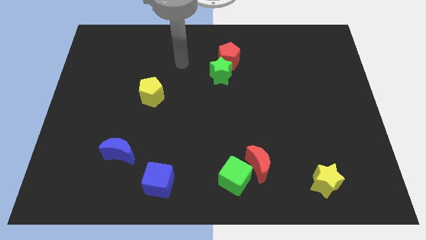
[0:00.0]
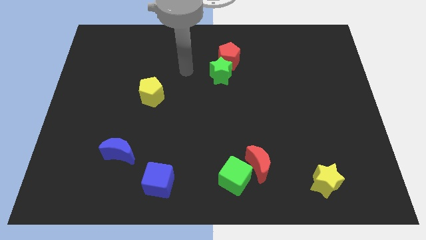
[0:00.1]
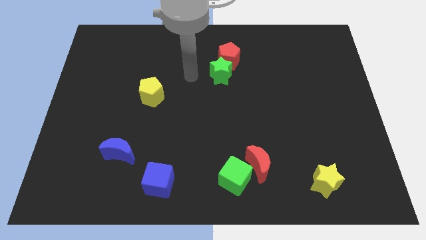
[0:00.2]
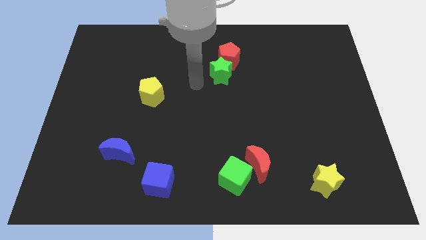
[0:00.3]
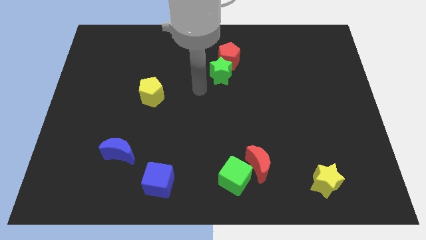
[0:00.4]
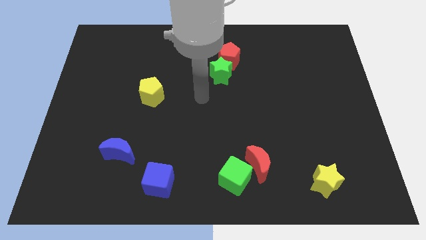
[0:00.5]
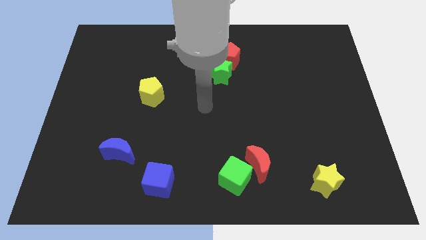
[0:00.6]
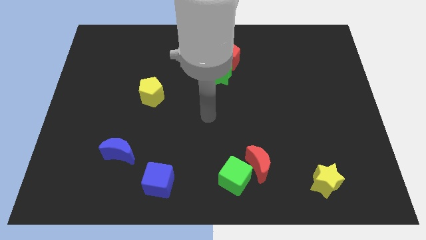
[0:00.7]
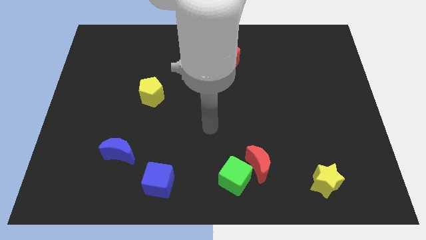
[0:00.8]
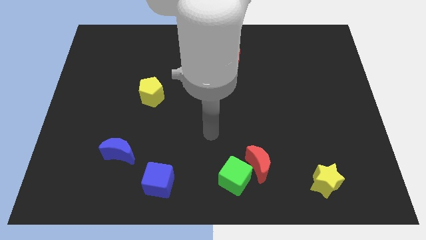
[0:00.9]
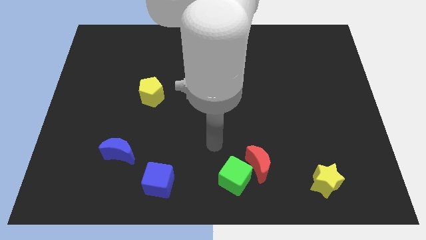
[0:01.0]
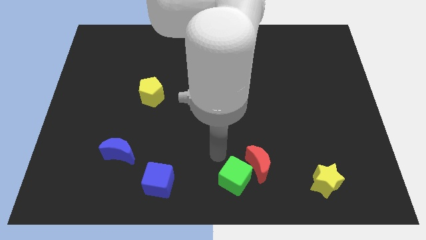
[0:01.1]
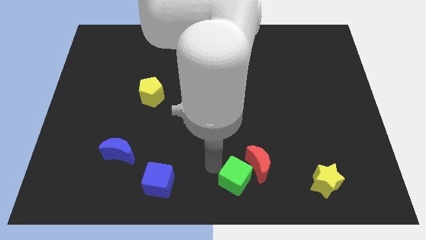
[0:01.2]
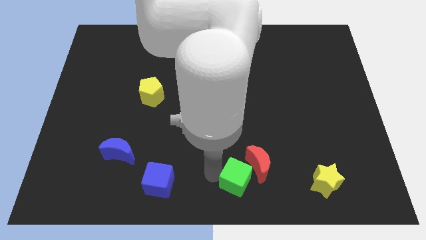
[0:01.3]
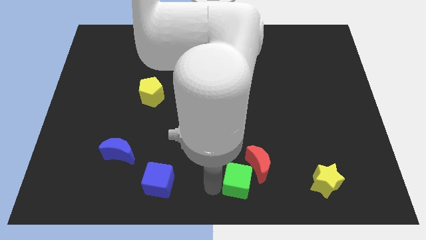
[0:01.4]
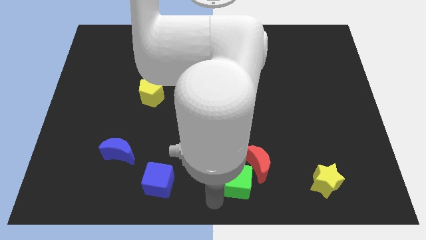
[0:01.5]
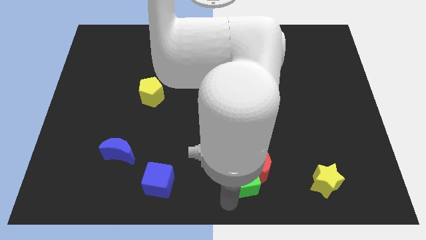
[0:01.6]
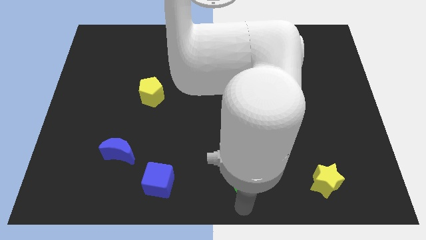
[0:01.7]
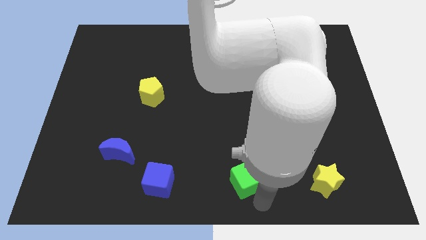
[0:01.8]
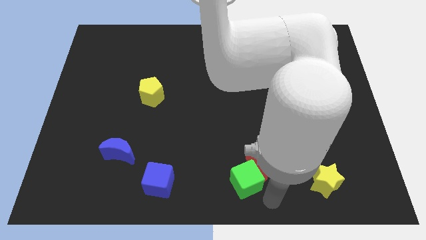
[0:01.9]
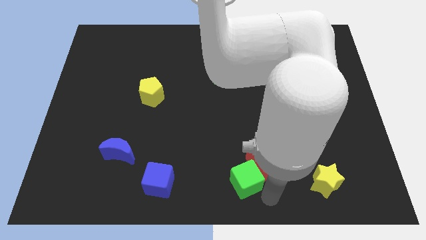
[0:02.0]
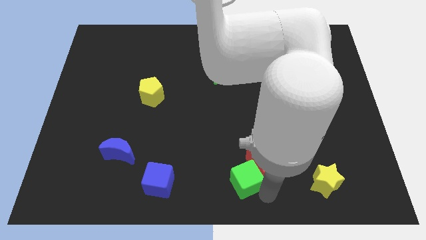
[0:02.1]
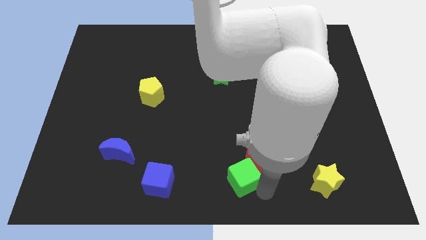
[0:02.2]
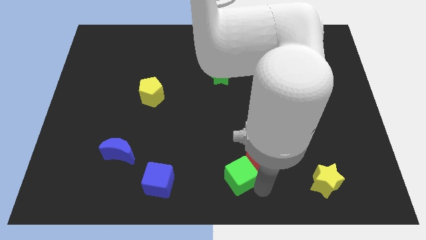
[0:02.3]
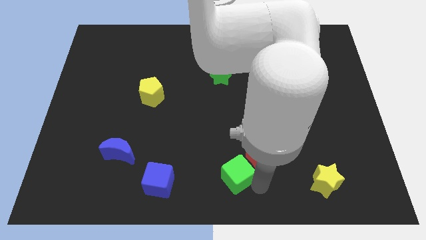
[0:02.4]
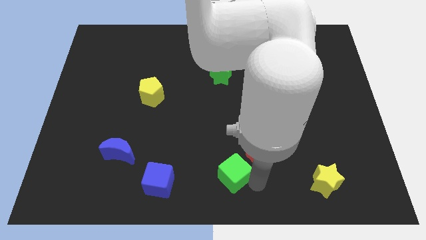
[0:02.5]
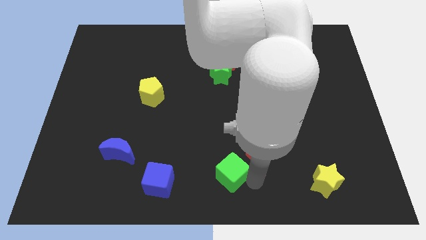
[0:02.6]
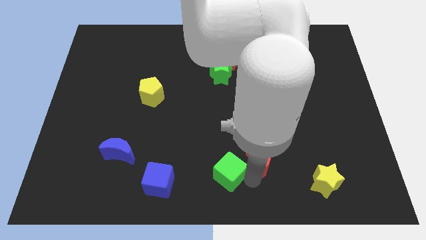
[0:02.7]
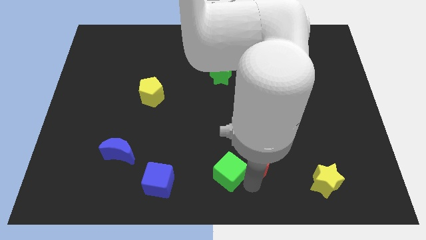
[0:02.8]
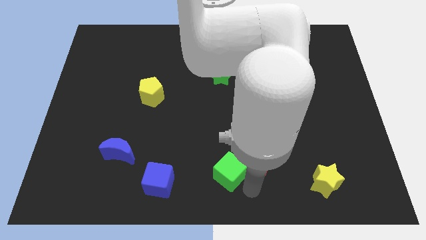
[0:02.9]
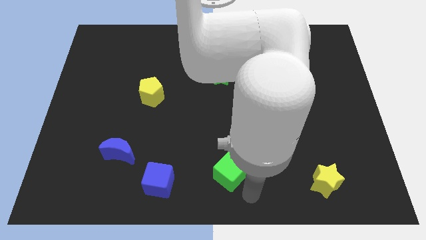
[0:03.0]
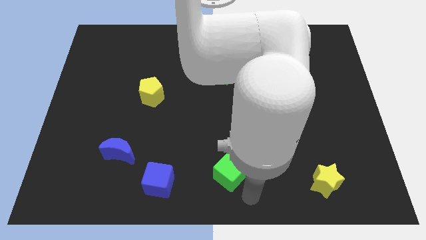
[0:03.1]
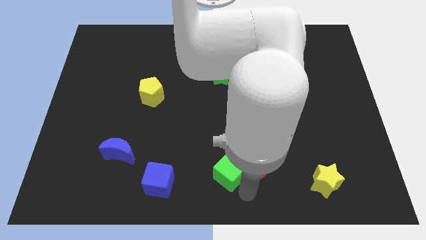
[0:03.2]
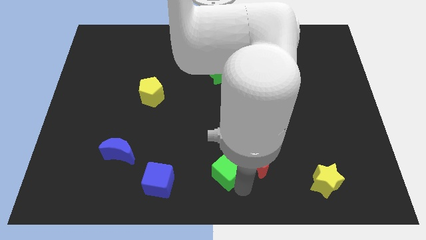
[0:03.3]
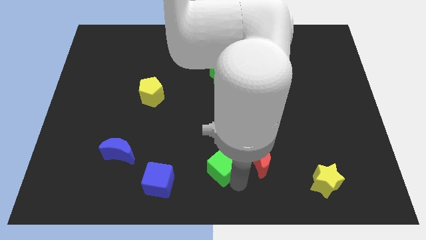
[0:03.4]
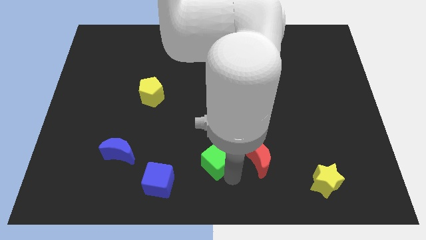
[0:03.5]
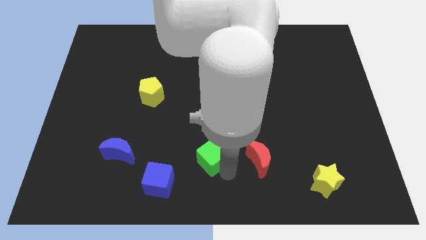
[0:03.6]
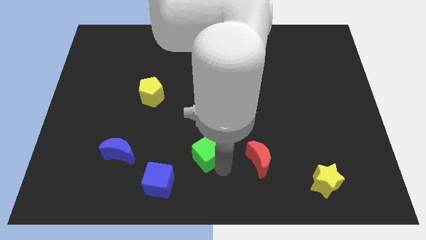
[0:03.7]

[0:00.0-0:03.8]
slide the green cube slightly up and to the left diagonally

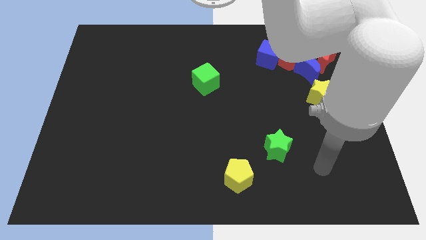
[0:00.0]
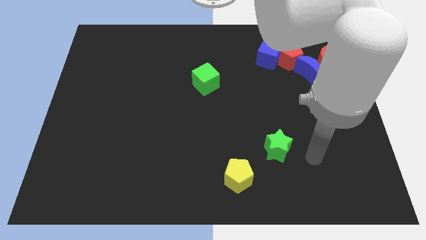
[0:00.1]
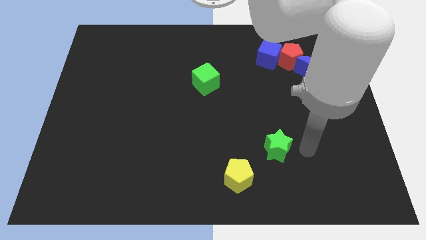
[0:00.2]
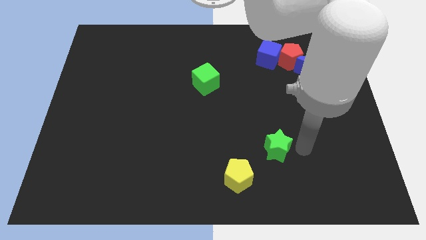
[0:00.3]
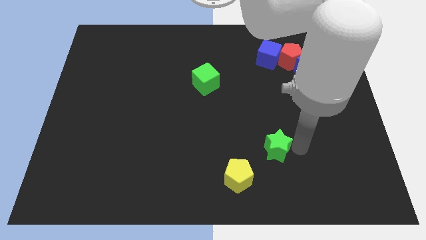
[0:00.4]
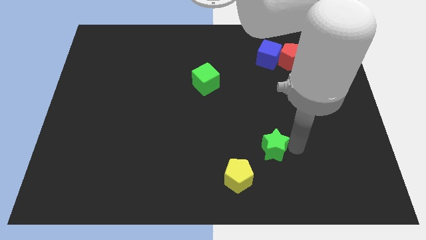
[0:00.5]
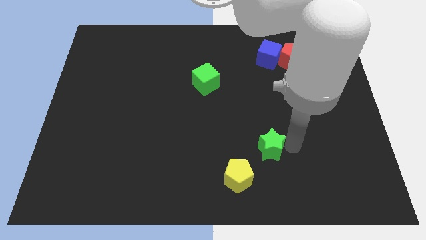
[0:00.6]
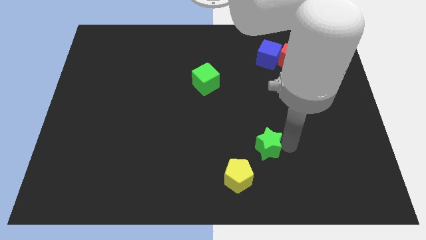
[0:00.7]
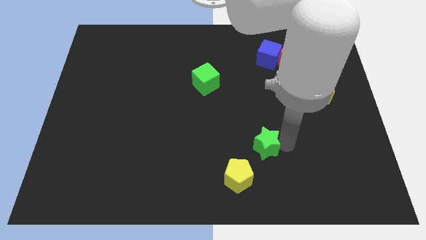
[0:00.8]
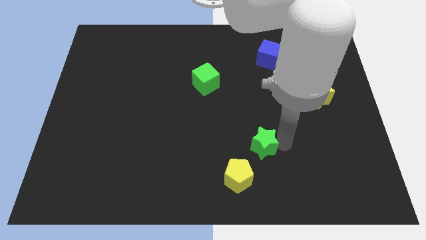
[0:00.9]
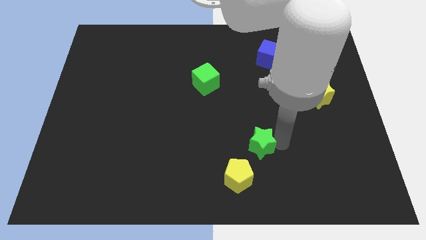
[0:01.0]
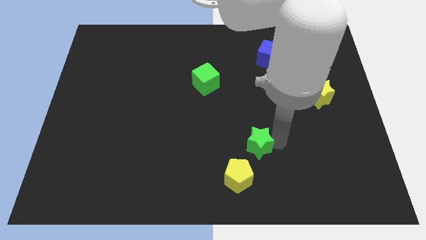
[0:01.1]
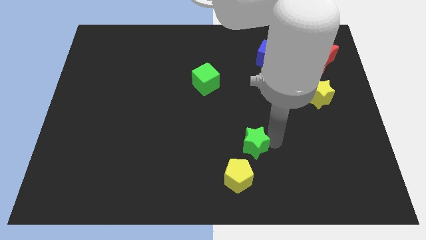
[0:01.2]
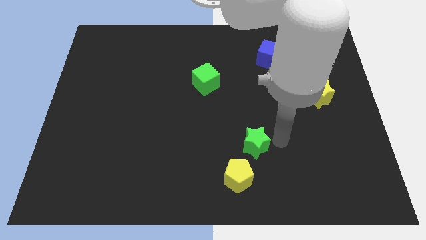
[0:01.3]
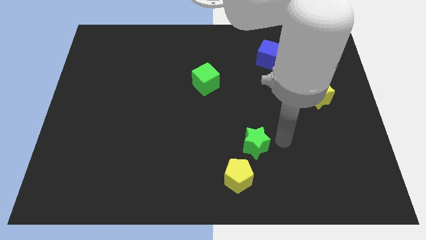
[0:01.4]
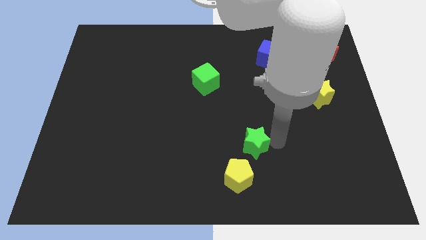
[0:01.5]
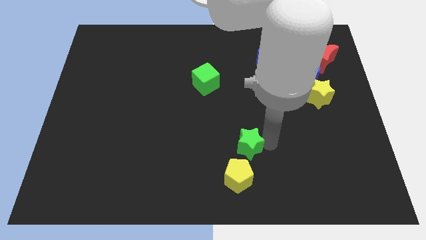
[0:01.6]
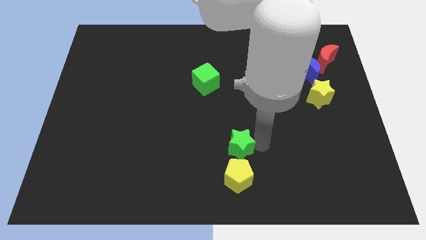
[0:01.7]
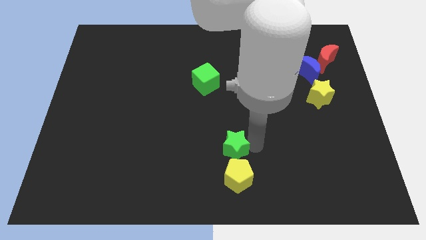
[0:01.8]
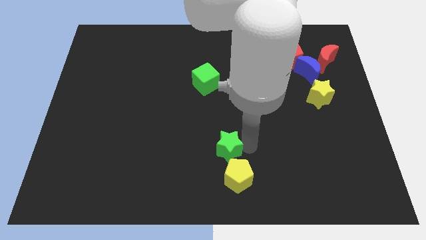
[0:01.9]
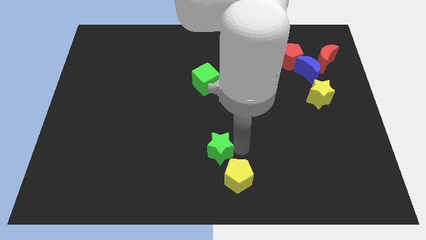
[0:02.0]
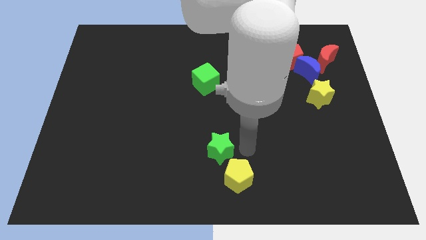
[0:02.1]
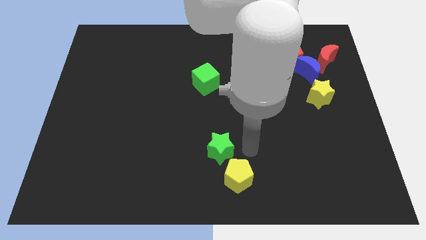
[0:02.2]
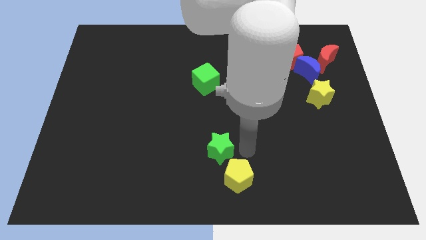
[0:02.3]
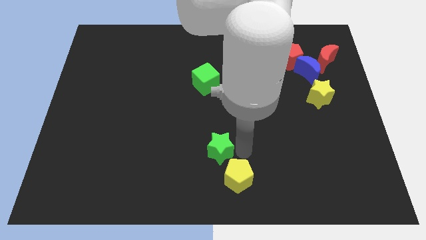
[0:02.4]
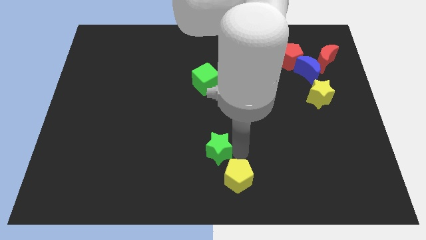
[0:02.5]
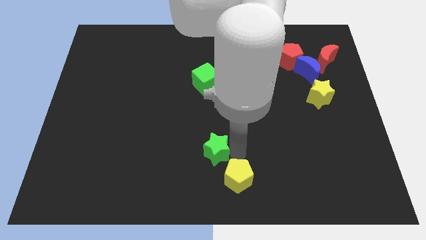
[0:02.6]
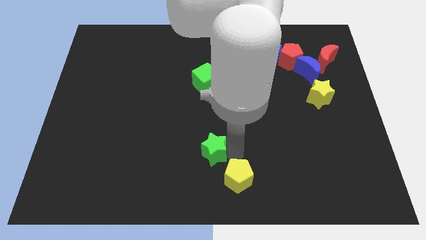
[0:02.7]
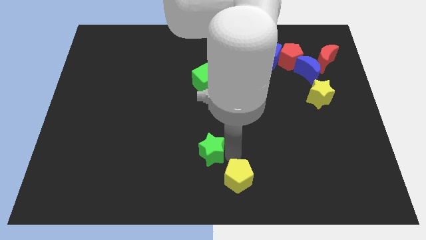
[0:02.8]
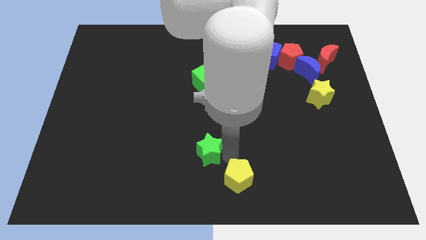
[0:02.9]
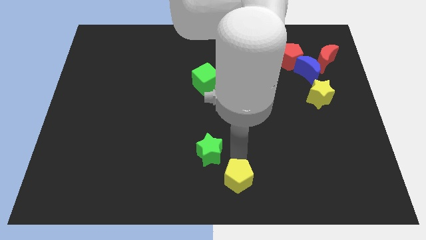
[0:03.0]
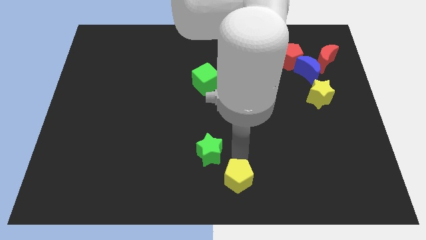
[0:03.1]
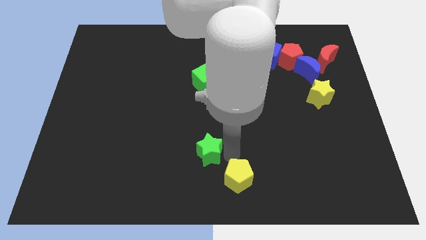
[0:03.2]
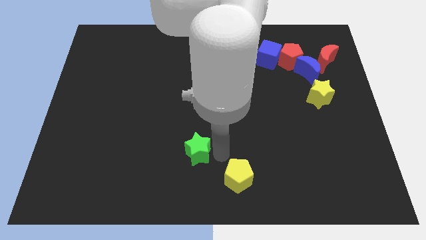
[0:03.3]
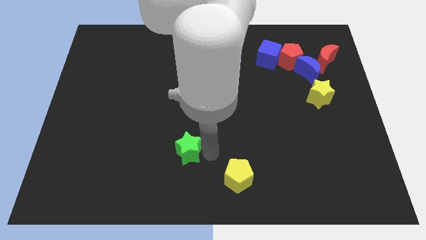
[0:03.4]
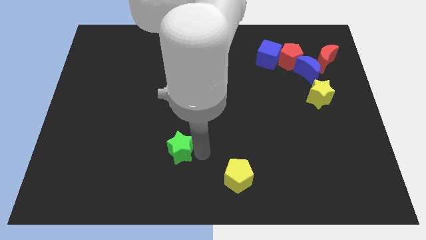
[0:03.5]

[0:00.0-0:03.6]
move the green star to the left

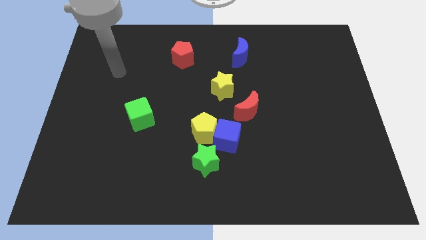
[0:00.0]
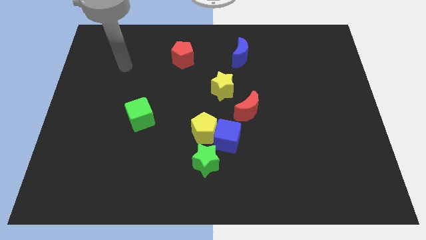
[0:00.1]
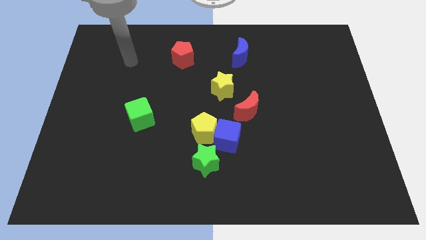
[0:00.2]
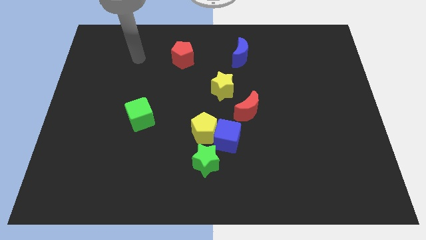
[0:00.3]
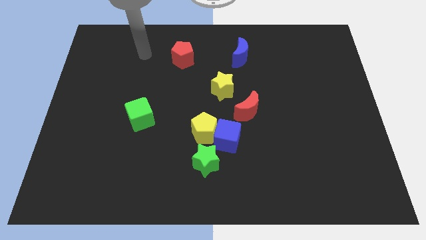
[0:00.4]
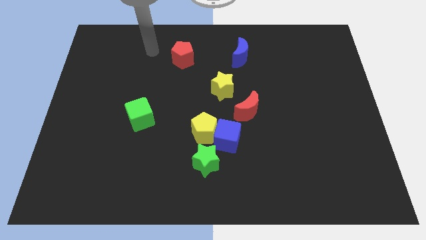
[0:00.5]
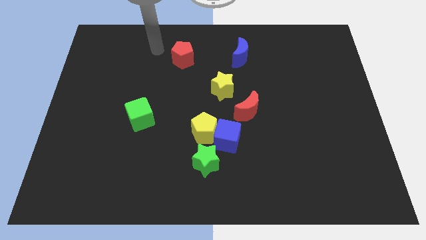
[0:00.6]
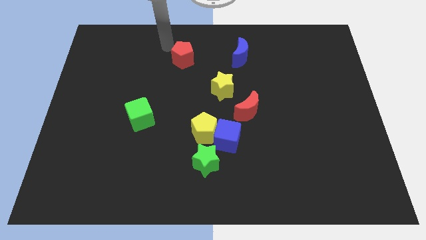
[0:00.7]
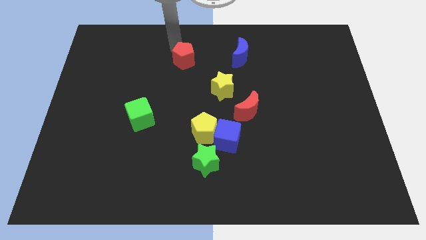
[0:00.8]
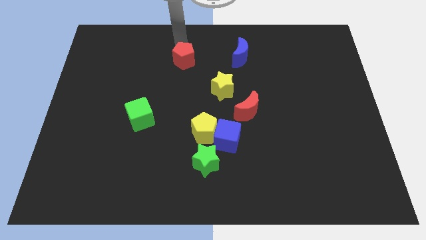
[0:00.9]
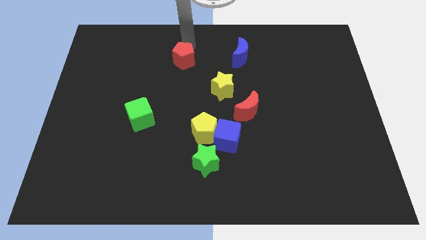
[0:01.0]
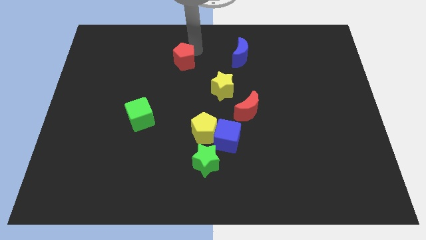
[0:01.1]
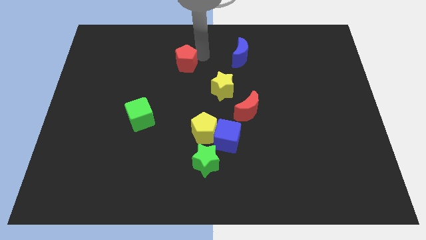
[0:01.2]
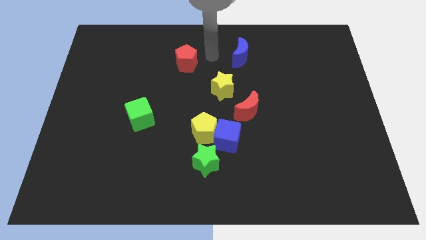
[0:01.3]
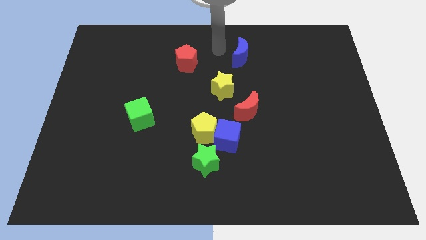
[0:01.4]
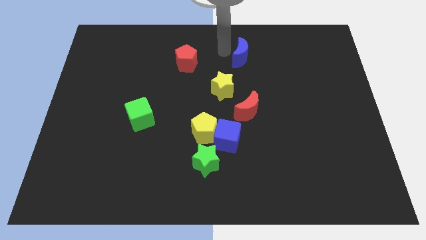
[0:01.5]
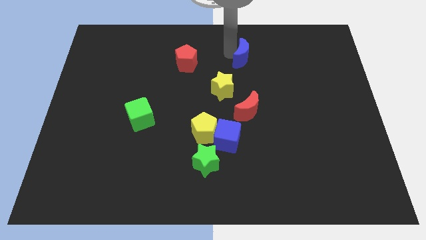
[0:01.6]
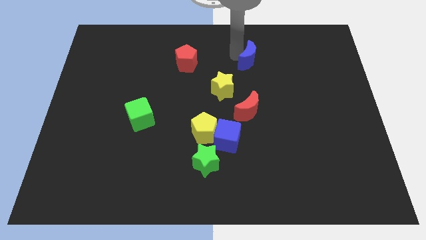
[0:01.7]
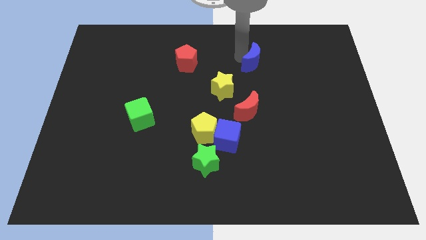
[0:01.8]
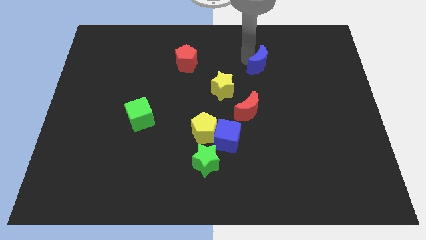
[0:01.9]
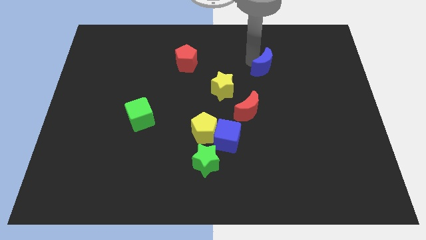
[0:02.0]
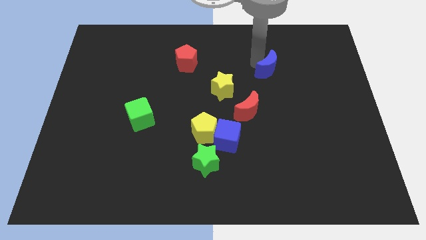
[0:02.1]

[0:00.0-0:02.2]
slide the blue moon downwards and to the right slightly
